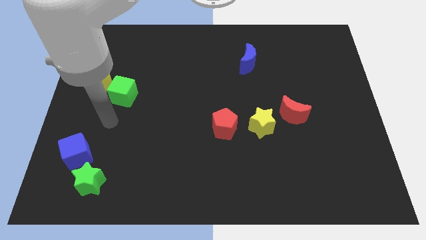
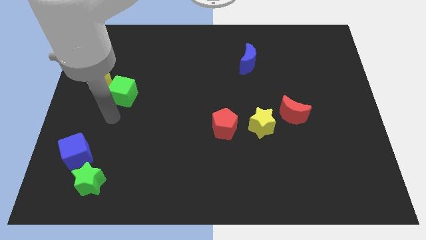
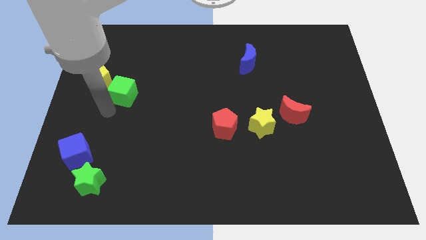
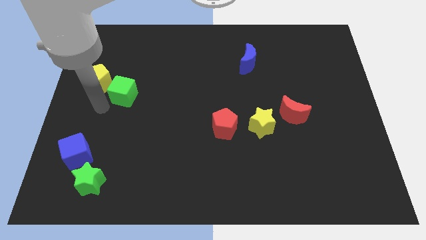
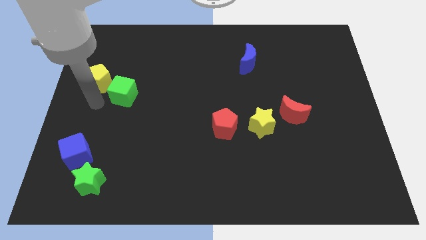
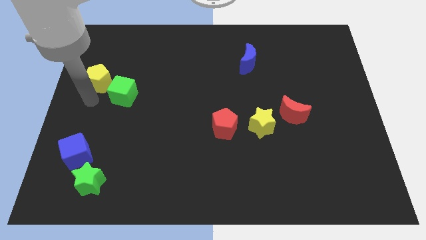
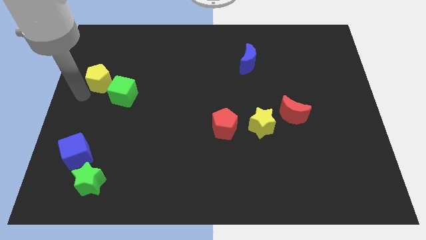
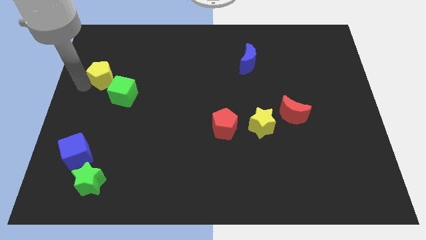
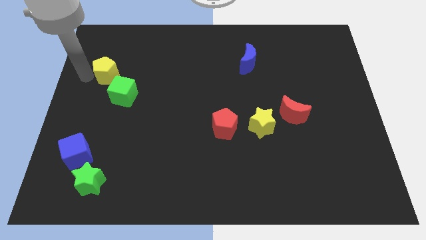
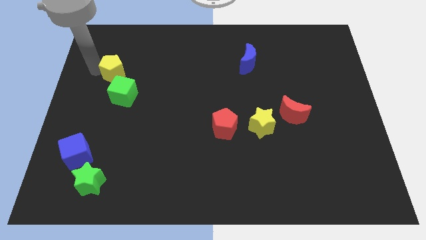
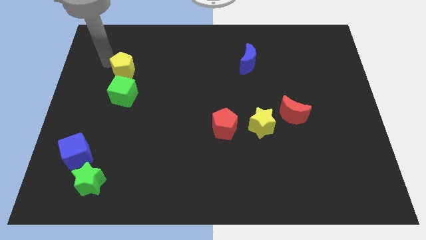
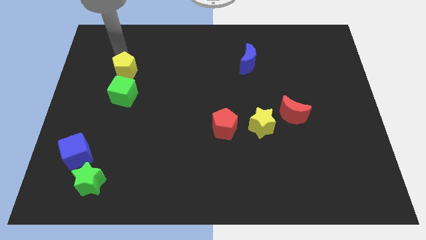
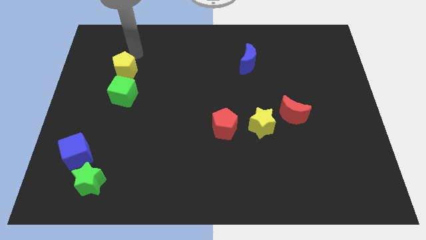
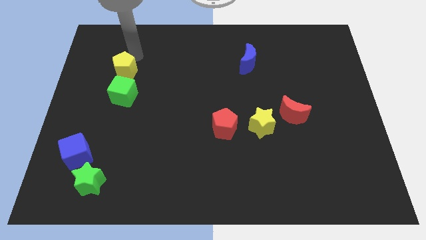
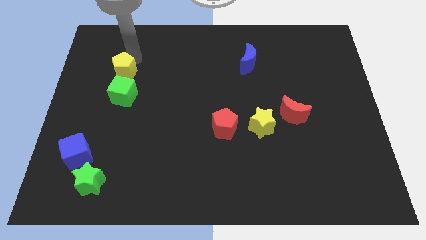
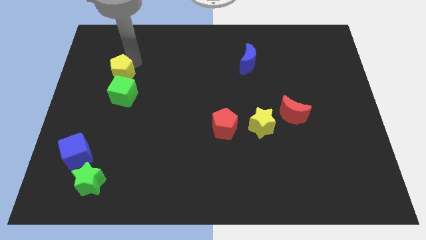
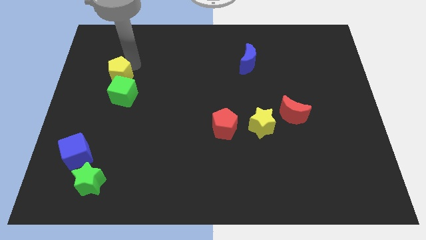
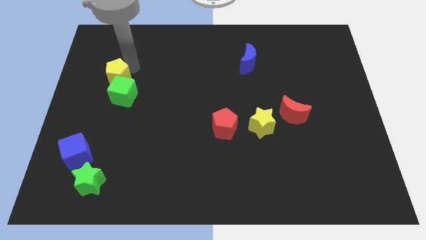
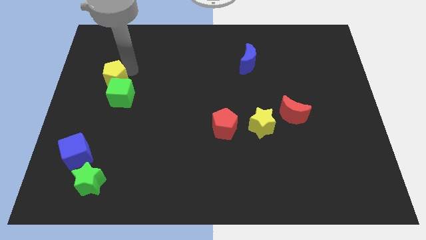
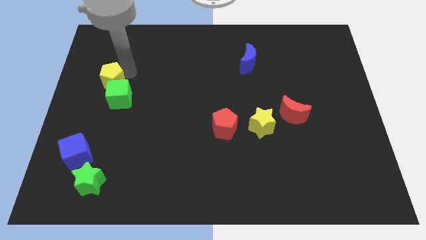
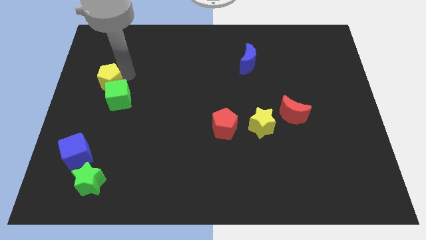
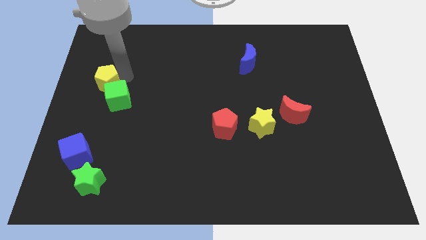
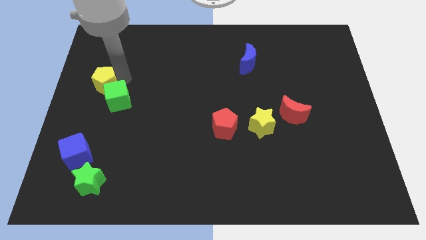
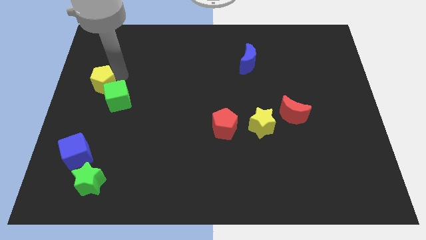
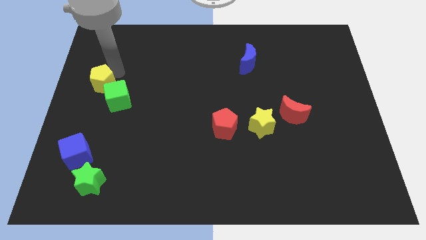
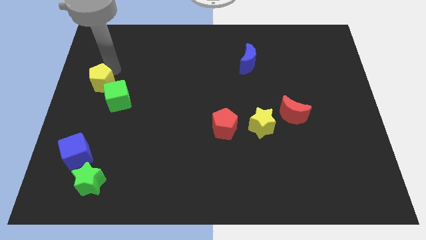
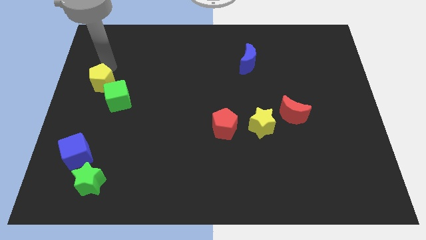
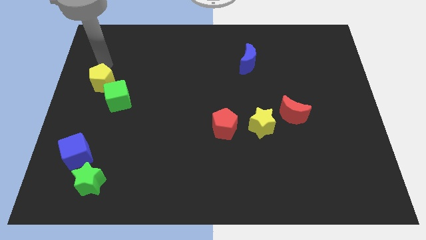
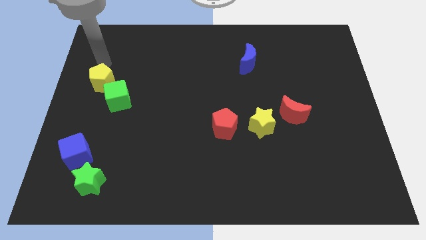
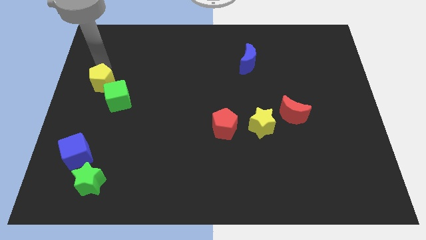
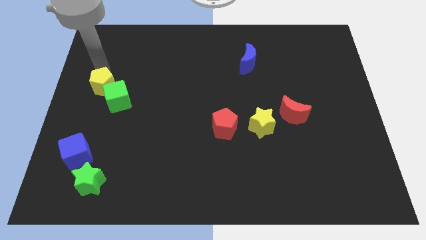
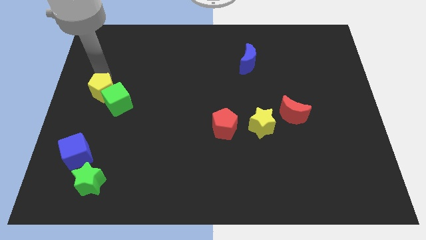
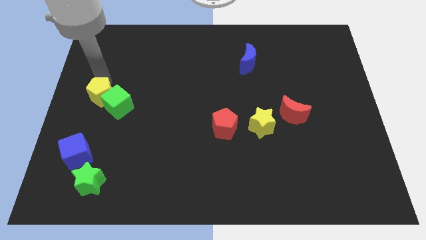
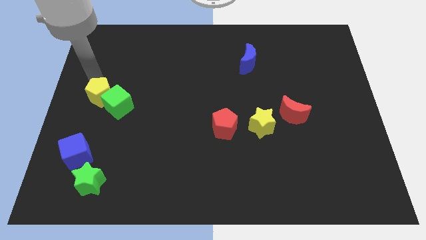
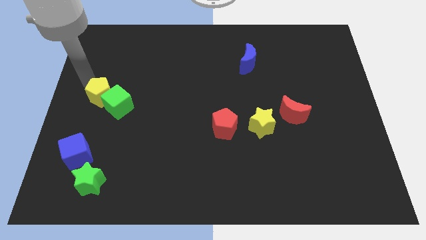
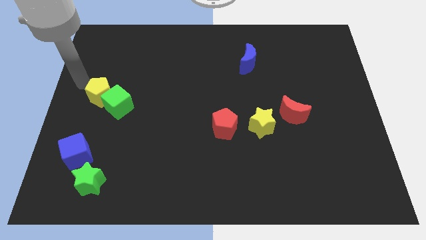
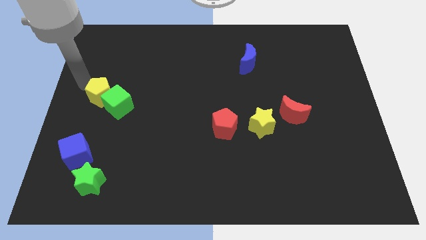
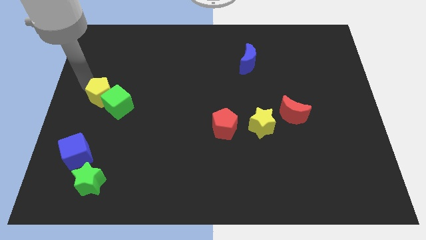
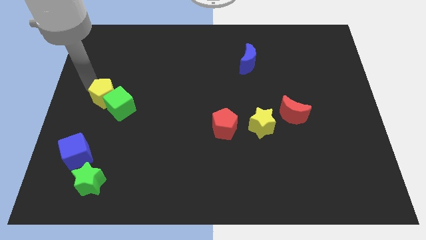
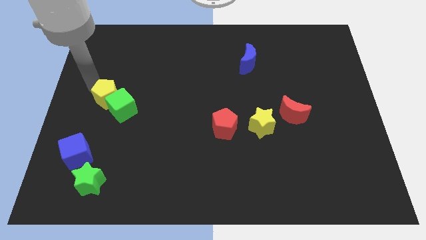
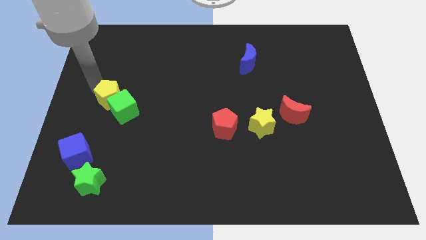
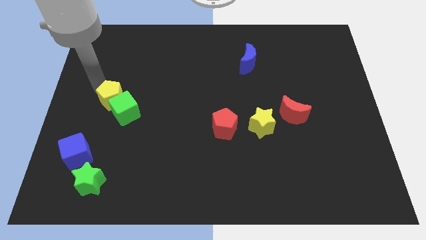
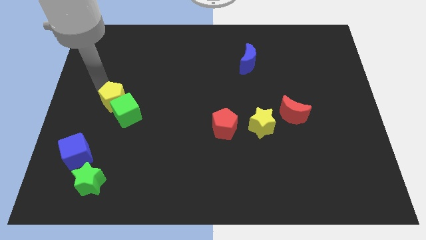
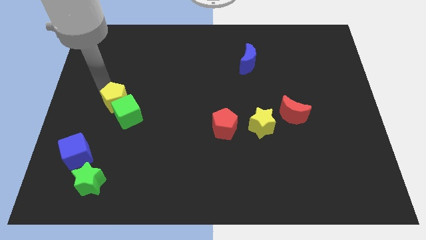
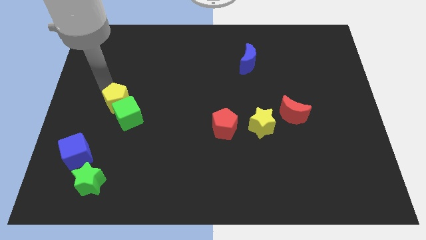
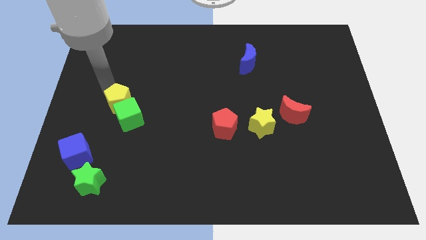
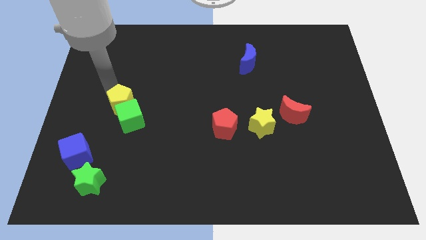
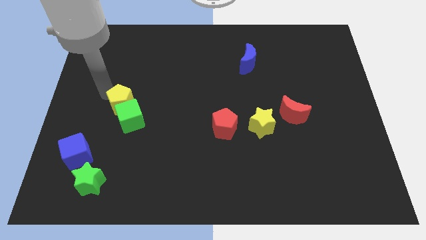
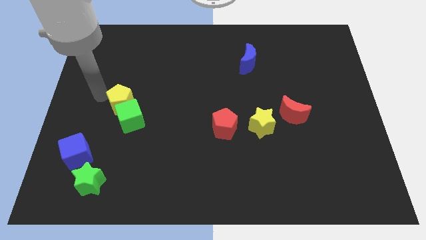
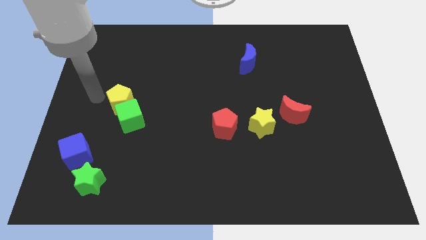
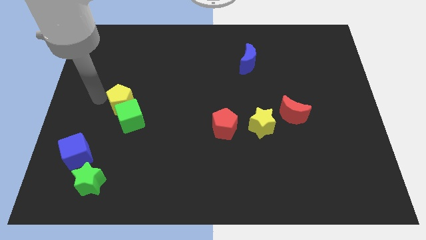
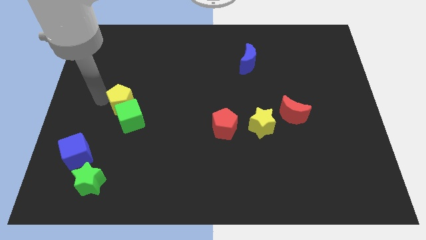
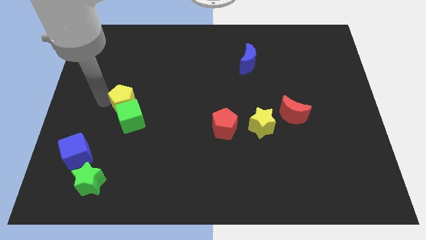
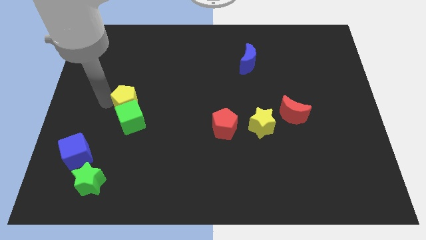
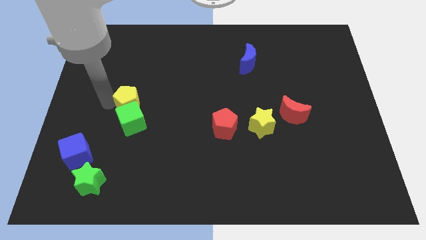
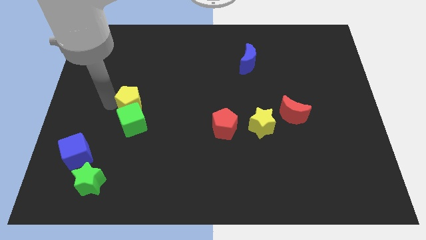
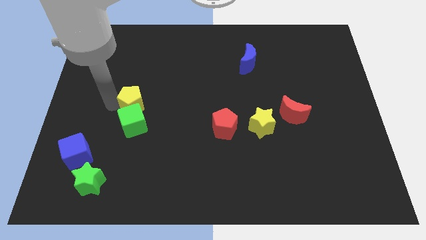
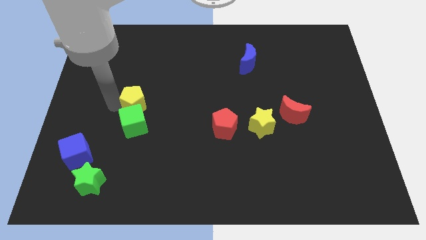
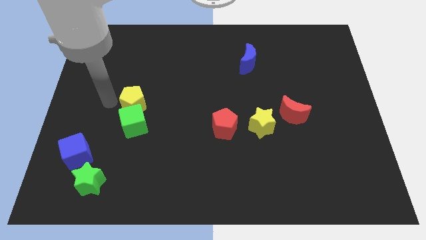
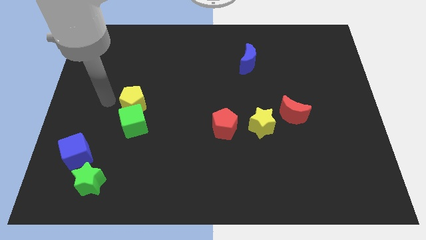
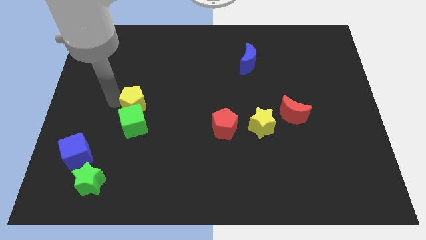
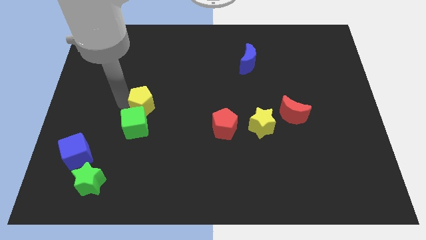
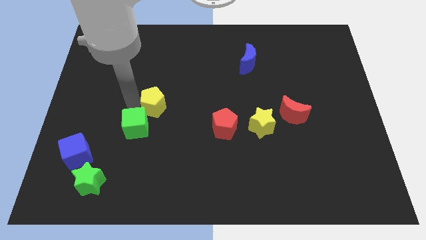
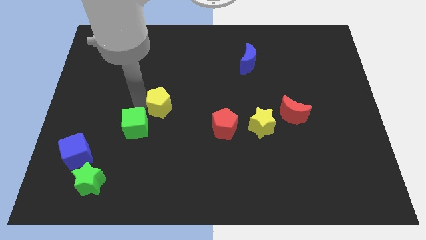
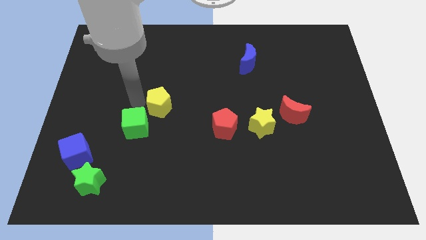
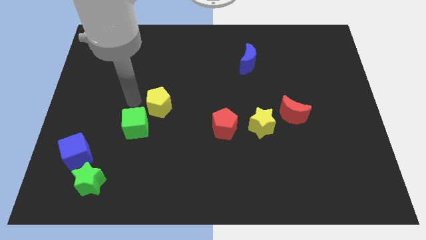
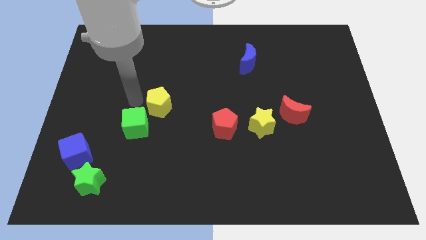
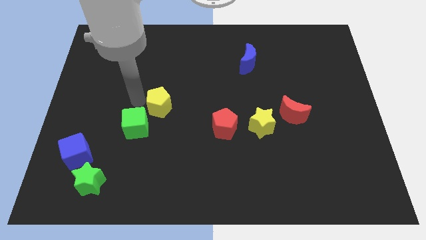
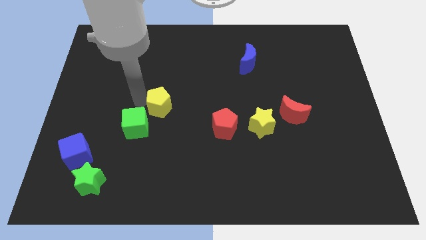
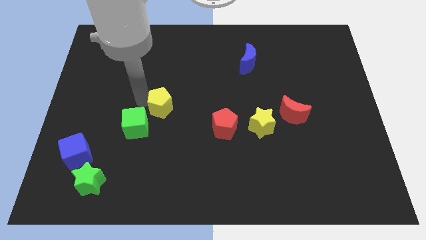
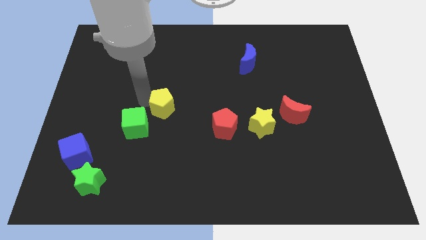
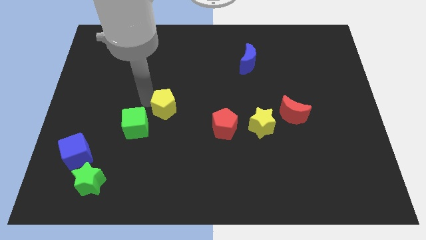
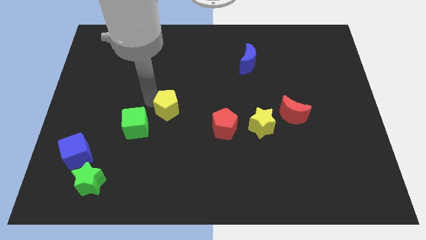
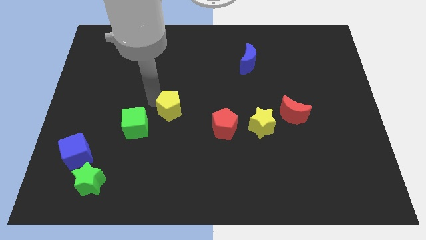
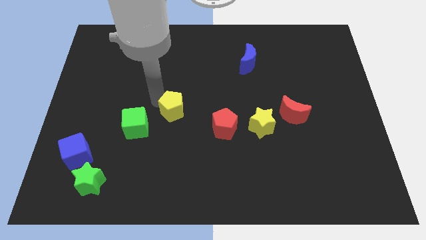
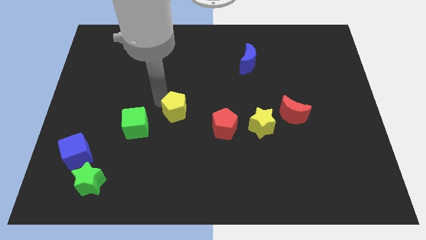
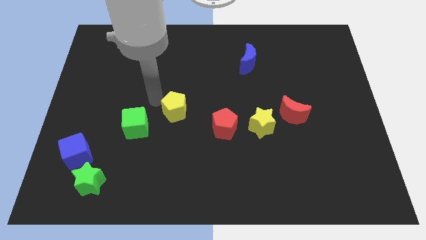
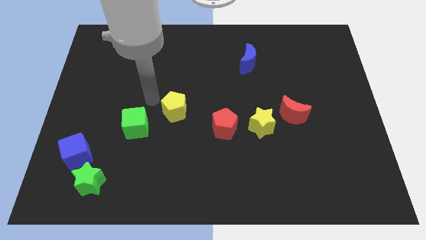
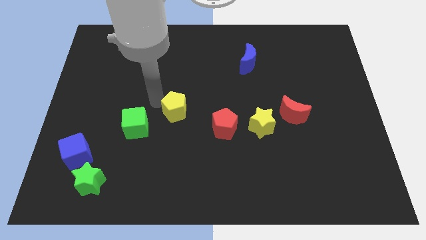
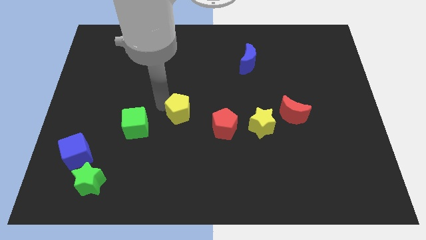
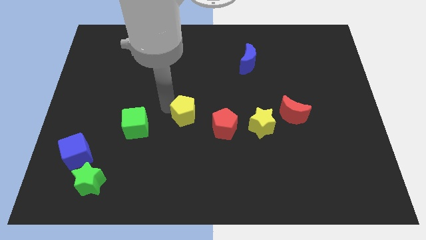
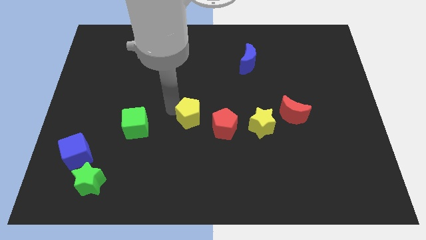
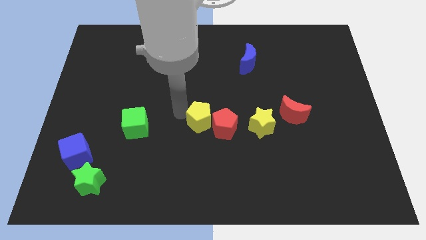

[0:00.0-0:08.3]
push the yellow pentagon to the red pentagon
